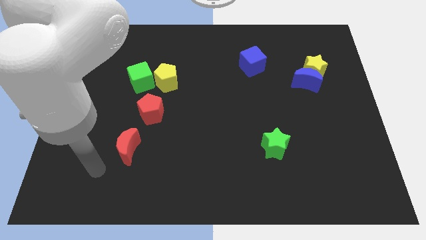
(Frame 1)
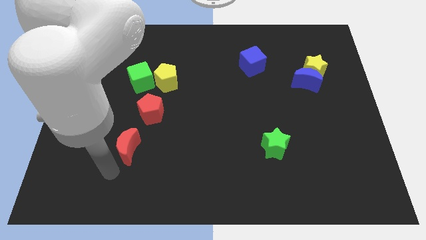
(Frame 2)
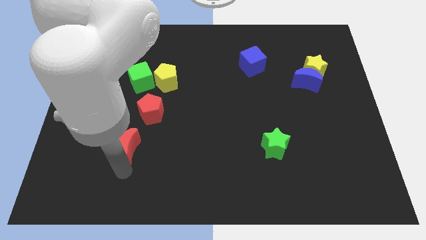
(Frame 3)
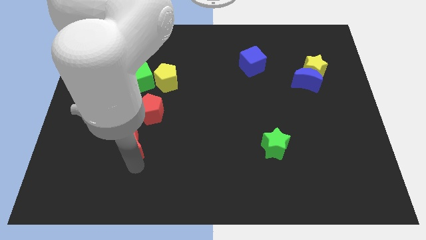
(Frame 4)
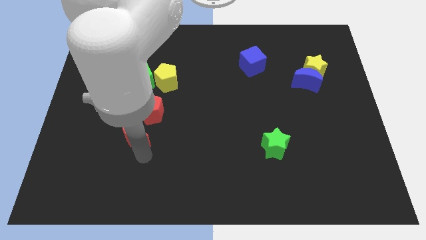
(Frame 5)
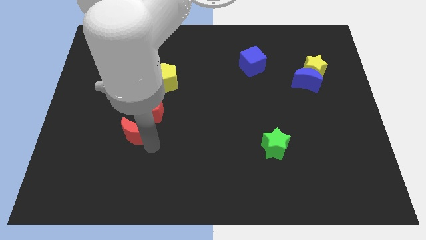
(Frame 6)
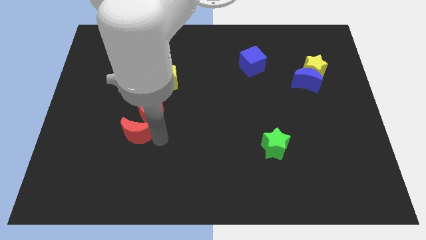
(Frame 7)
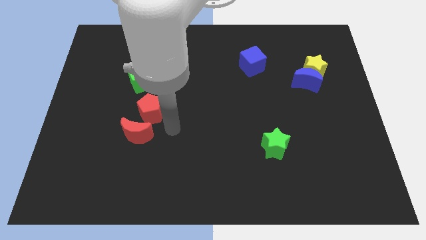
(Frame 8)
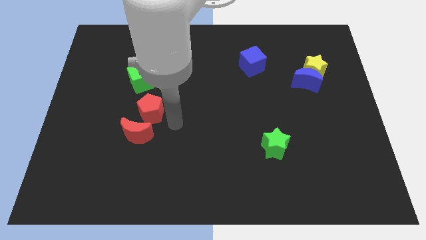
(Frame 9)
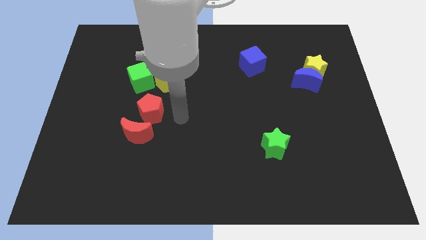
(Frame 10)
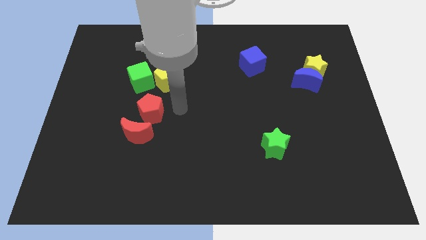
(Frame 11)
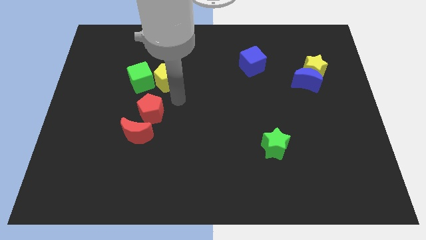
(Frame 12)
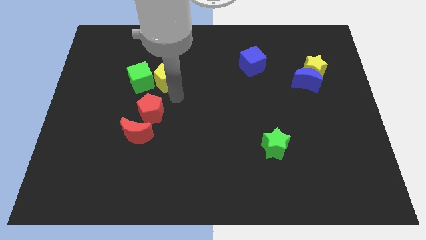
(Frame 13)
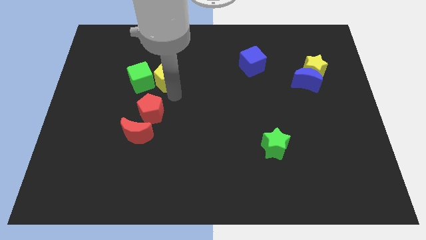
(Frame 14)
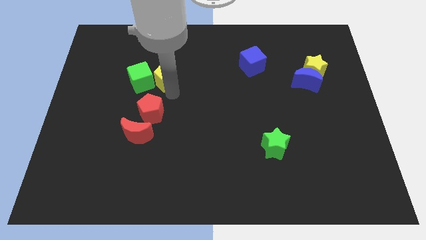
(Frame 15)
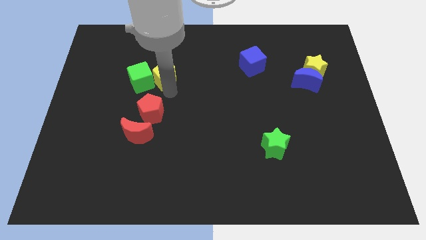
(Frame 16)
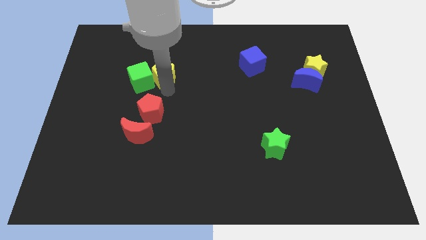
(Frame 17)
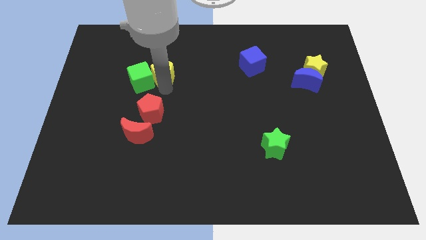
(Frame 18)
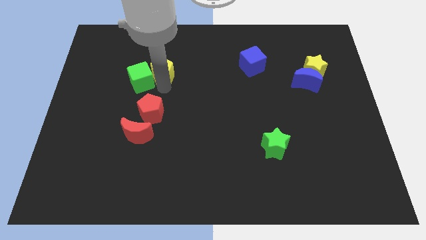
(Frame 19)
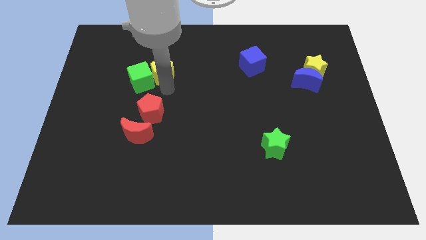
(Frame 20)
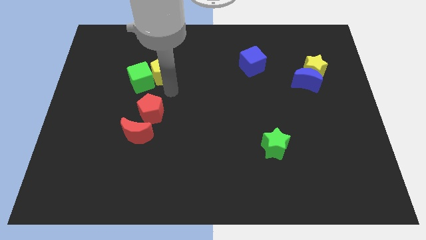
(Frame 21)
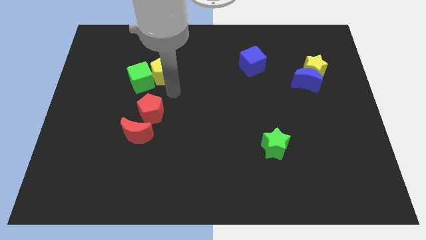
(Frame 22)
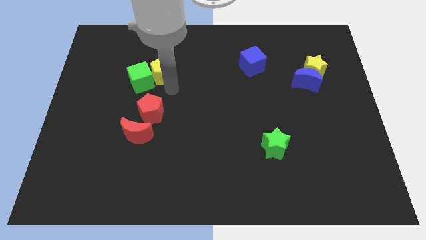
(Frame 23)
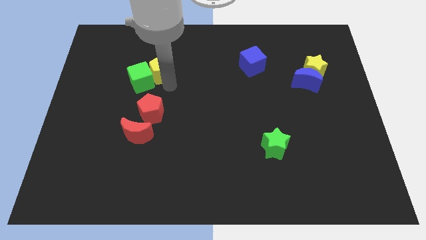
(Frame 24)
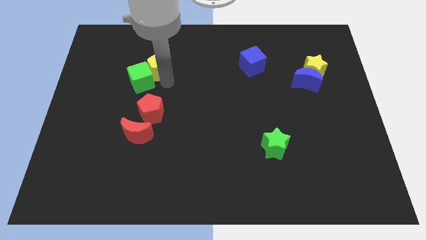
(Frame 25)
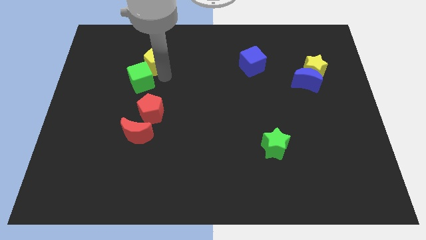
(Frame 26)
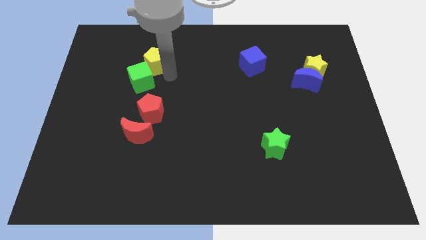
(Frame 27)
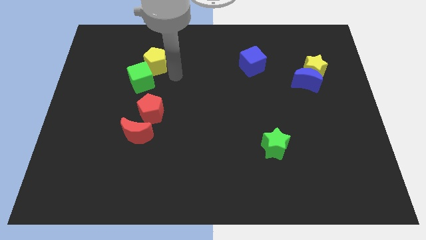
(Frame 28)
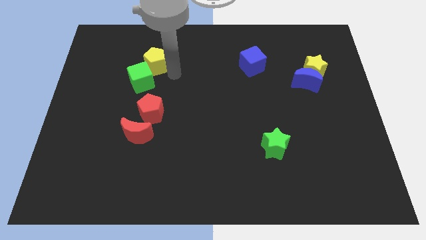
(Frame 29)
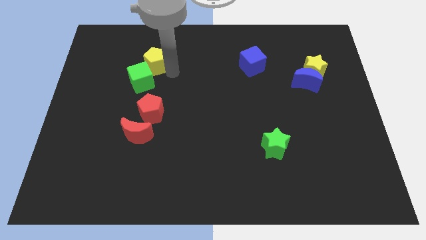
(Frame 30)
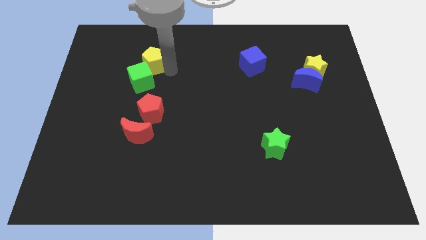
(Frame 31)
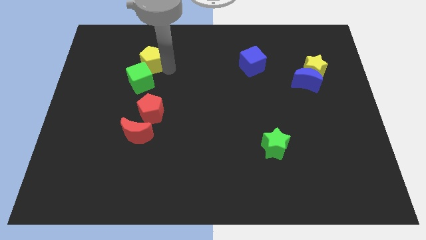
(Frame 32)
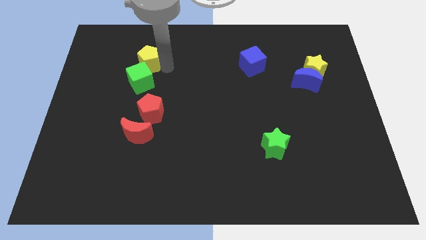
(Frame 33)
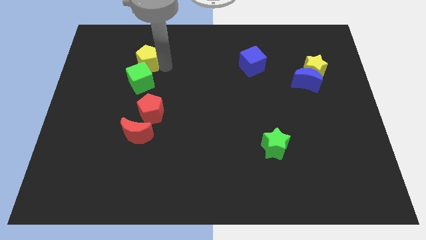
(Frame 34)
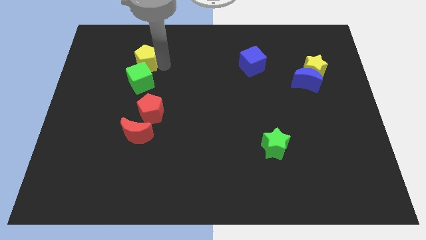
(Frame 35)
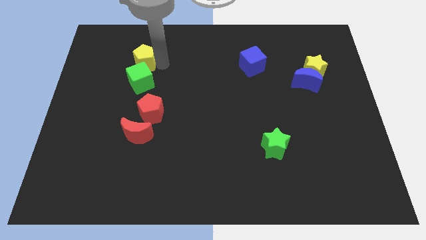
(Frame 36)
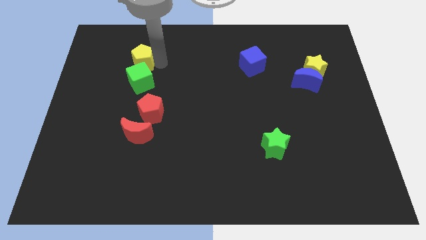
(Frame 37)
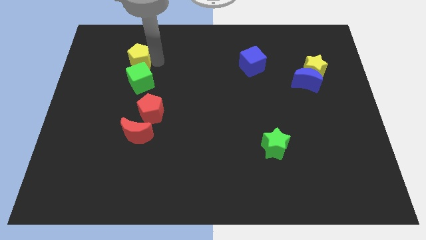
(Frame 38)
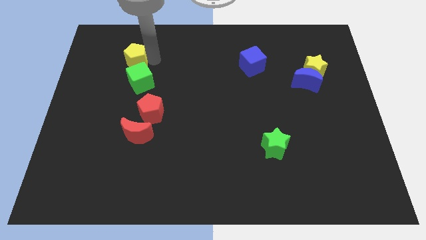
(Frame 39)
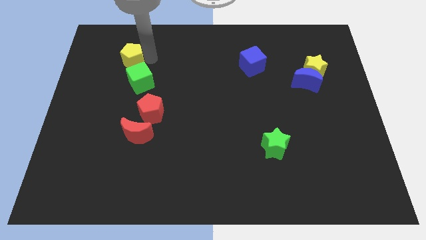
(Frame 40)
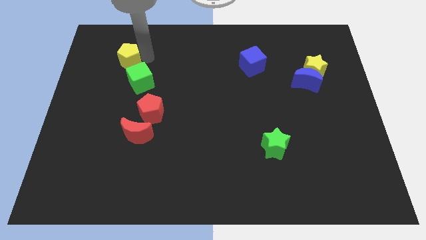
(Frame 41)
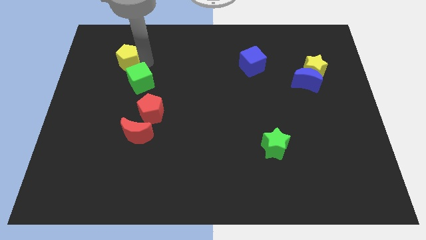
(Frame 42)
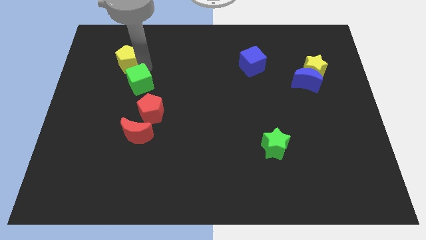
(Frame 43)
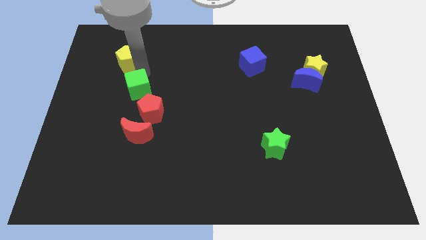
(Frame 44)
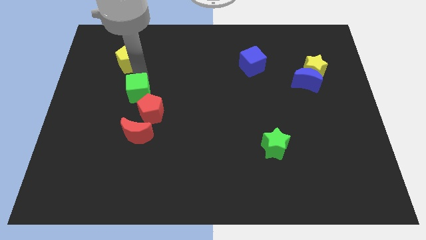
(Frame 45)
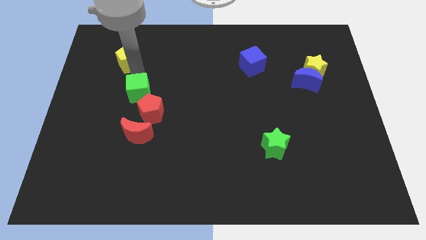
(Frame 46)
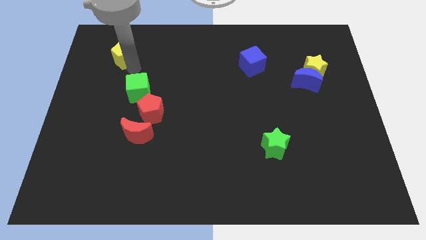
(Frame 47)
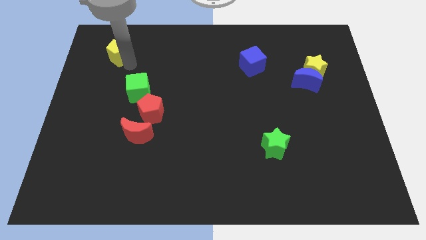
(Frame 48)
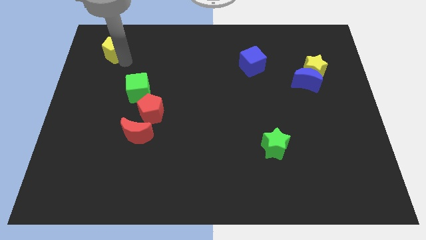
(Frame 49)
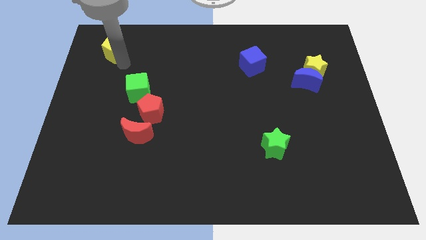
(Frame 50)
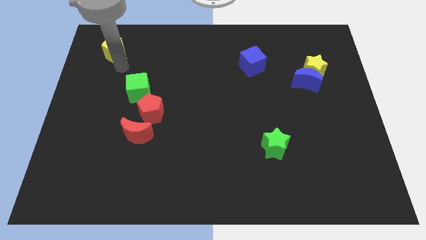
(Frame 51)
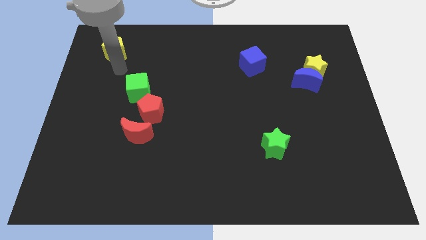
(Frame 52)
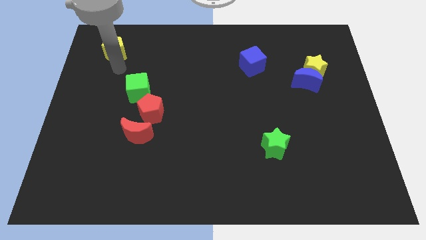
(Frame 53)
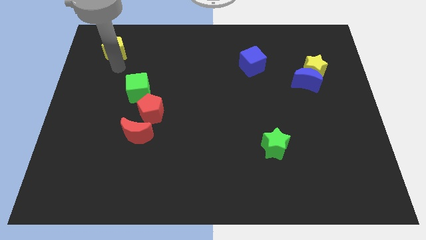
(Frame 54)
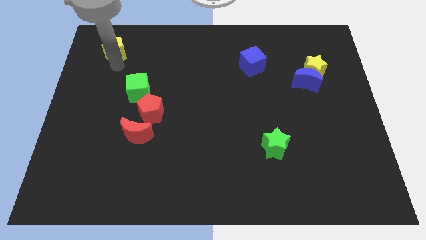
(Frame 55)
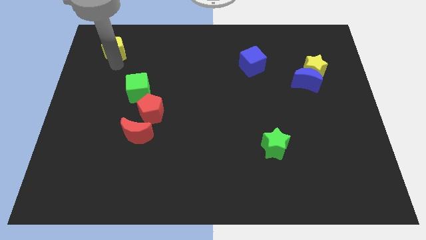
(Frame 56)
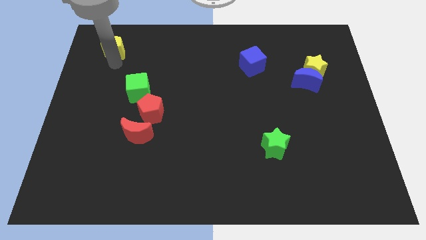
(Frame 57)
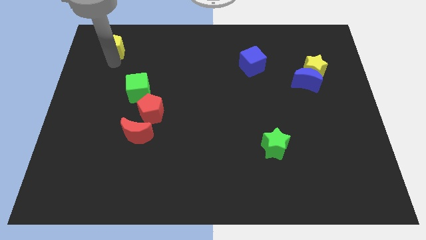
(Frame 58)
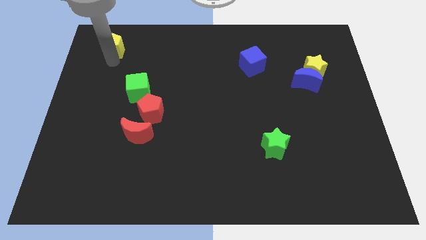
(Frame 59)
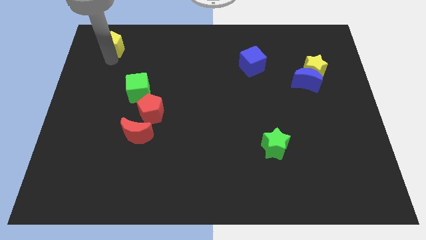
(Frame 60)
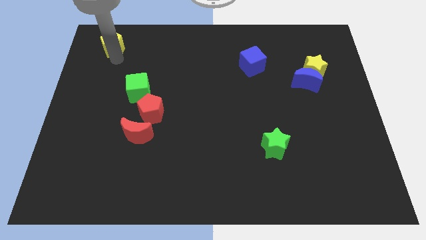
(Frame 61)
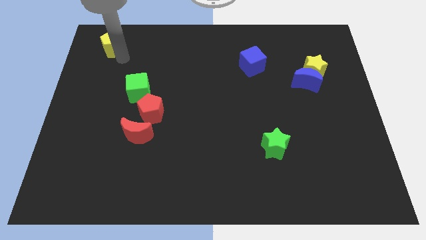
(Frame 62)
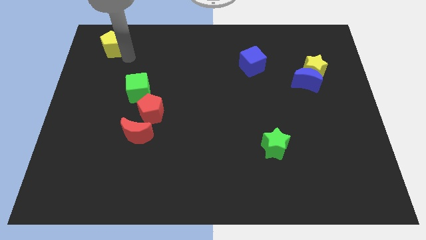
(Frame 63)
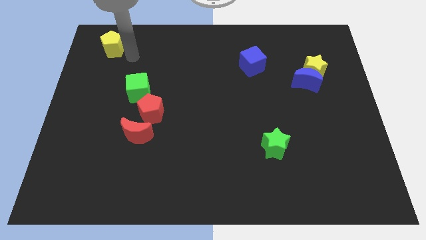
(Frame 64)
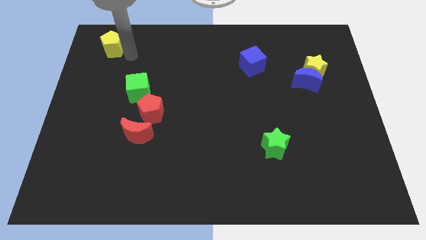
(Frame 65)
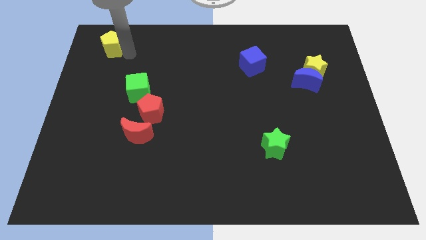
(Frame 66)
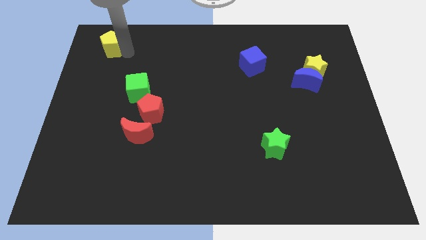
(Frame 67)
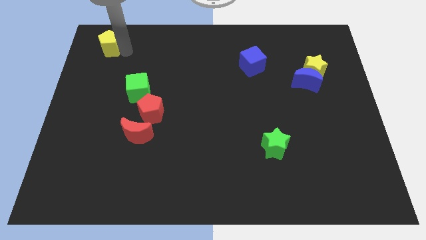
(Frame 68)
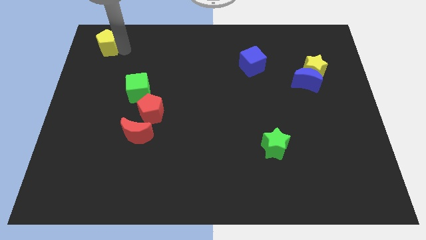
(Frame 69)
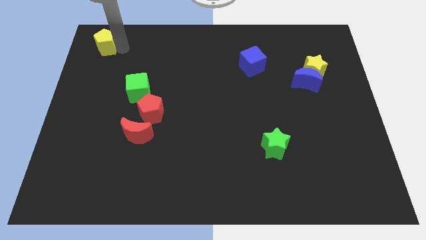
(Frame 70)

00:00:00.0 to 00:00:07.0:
move the yellow pentagon to the top left of the board
